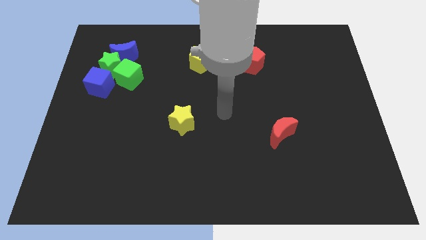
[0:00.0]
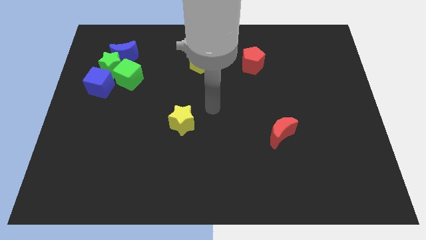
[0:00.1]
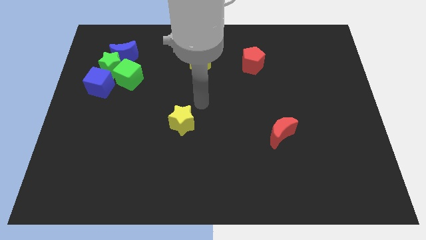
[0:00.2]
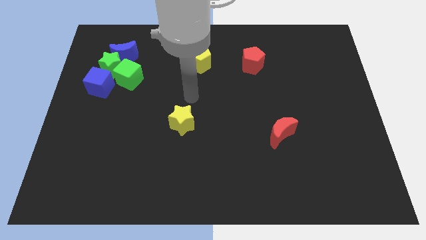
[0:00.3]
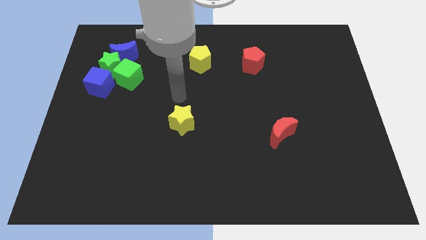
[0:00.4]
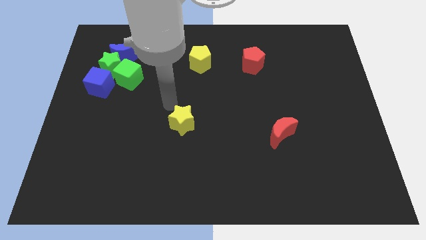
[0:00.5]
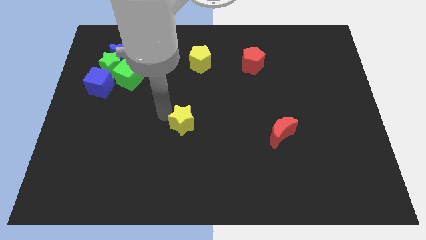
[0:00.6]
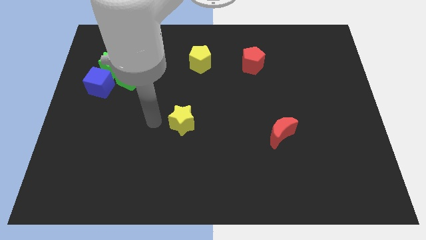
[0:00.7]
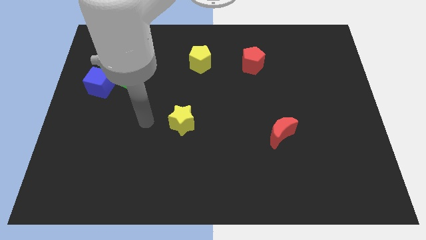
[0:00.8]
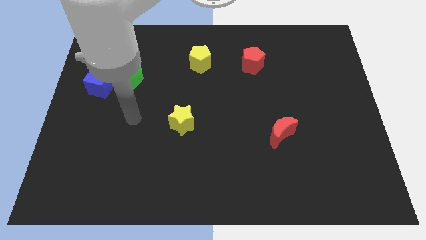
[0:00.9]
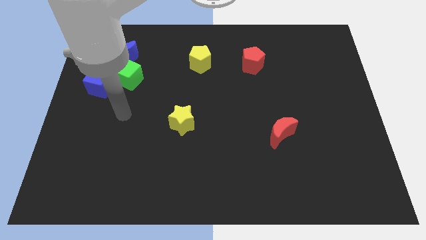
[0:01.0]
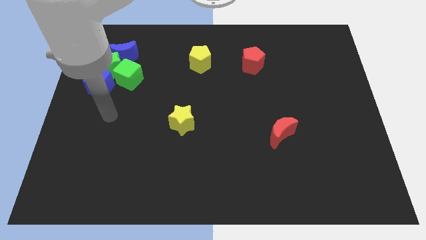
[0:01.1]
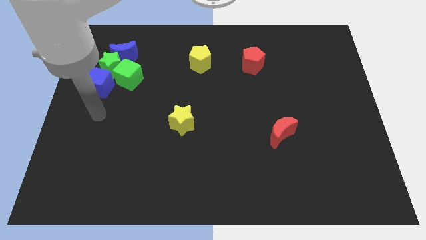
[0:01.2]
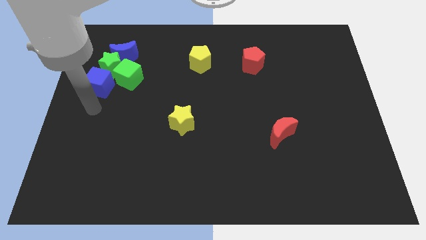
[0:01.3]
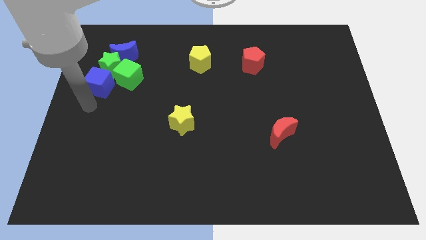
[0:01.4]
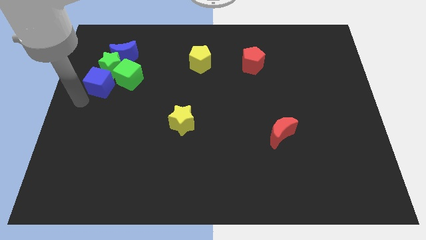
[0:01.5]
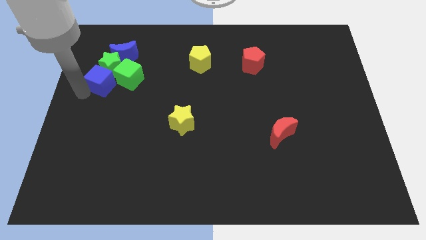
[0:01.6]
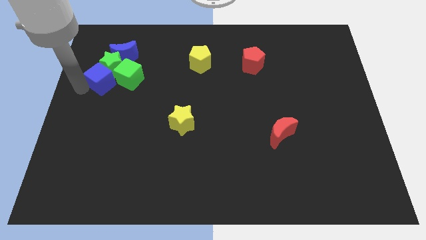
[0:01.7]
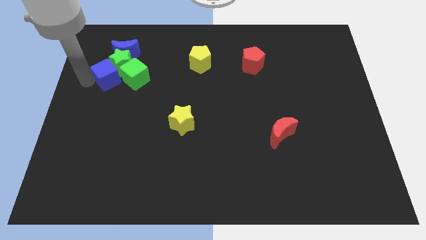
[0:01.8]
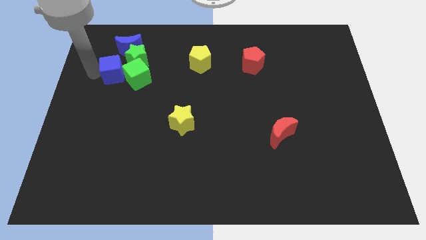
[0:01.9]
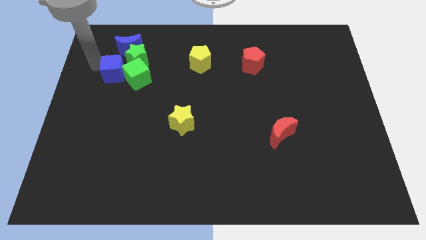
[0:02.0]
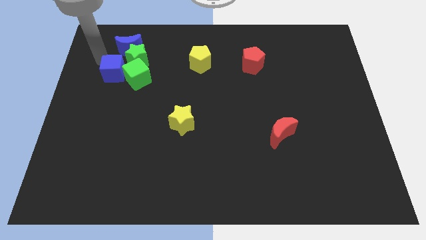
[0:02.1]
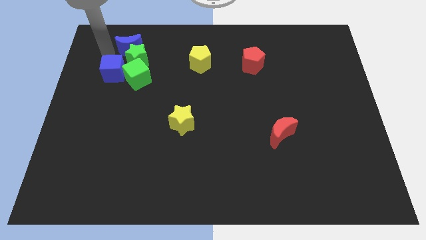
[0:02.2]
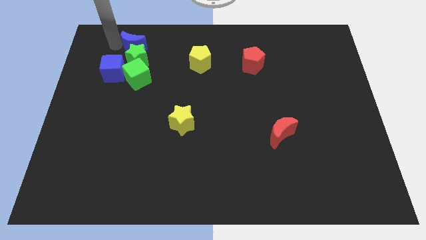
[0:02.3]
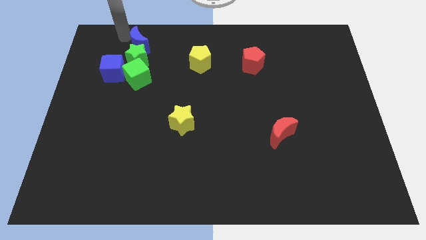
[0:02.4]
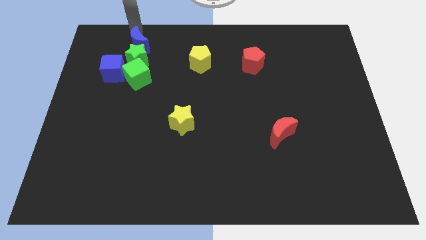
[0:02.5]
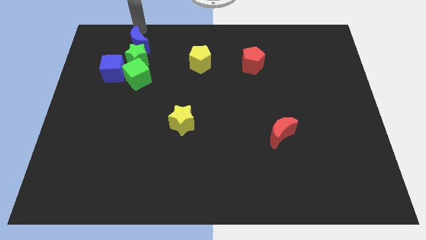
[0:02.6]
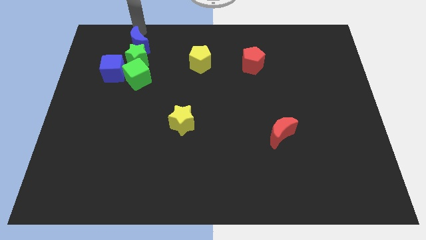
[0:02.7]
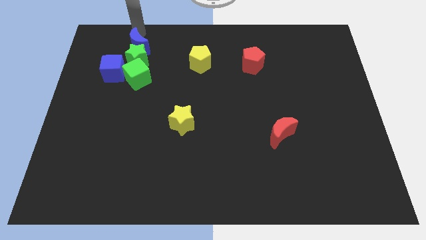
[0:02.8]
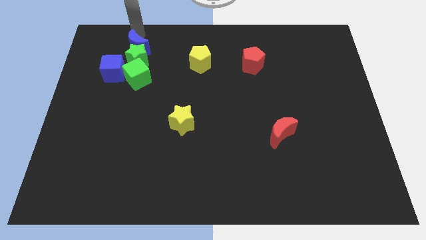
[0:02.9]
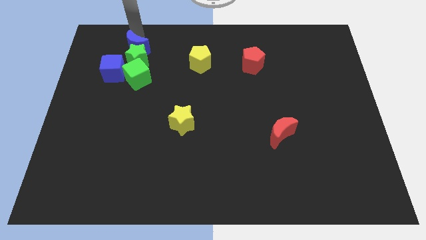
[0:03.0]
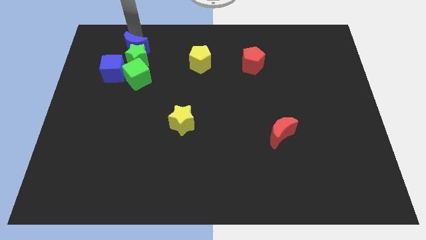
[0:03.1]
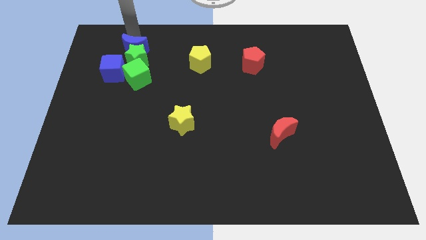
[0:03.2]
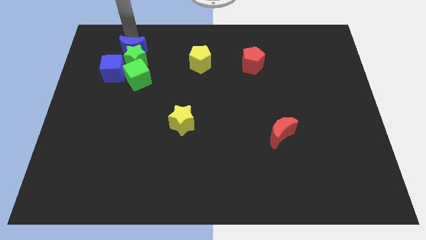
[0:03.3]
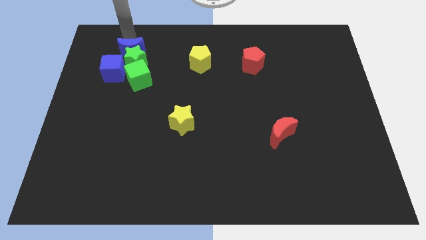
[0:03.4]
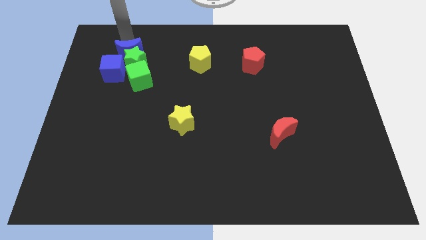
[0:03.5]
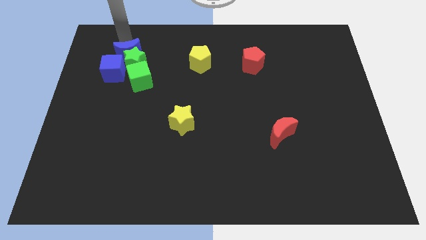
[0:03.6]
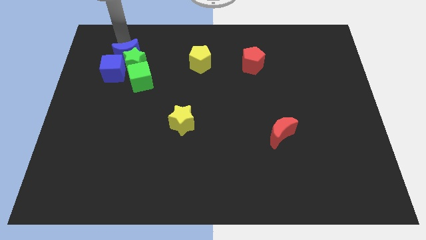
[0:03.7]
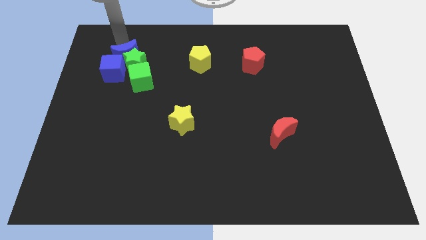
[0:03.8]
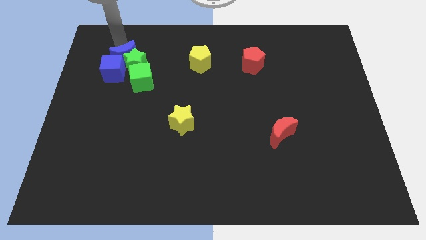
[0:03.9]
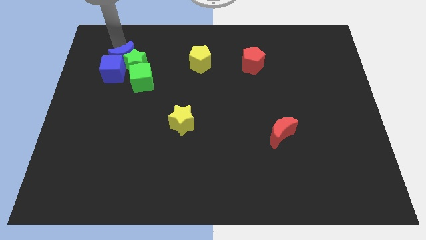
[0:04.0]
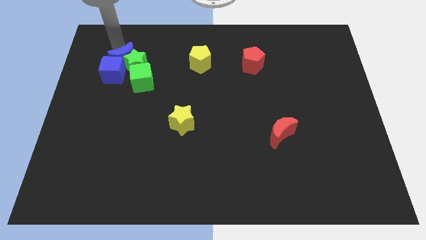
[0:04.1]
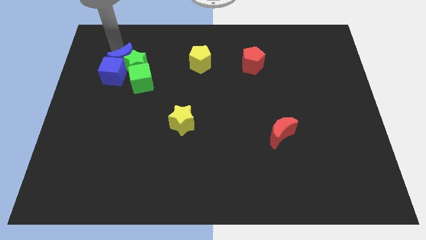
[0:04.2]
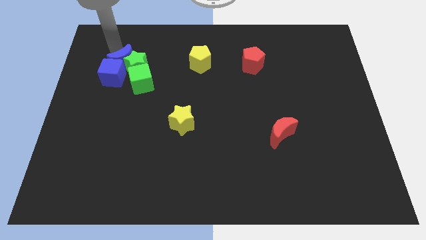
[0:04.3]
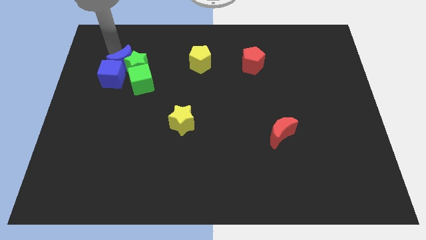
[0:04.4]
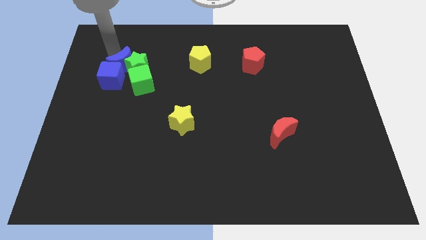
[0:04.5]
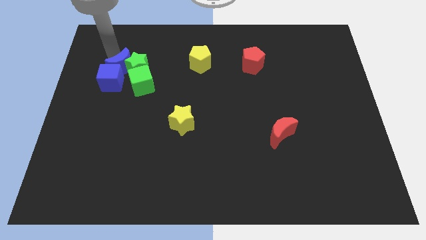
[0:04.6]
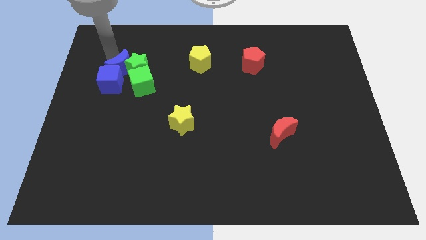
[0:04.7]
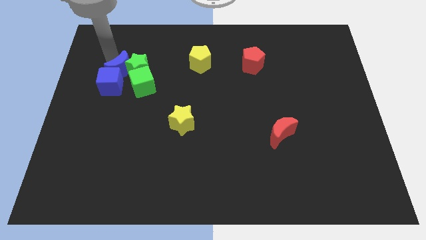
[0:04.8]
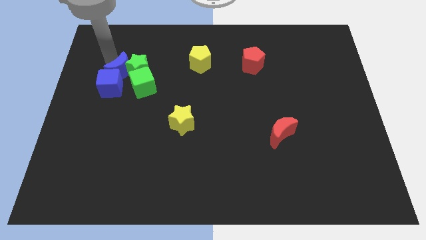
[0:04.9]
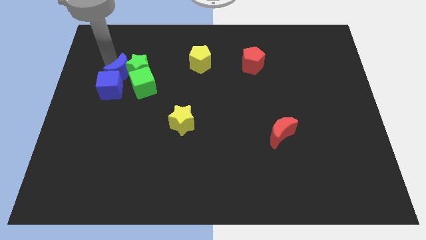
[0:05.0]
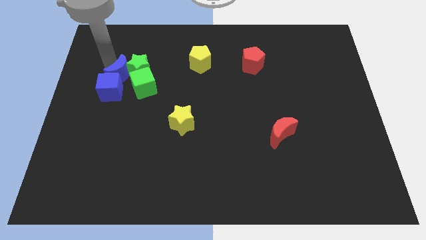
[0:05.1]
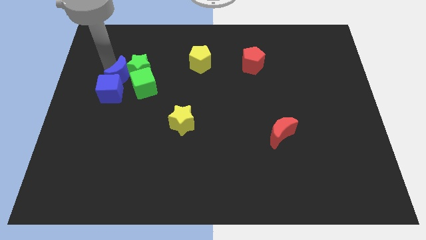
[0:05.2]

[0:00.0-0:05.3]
move the blue moon down a little

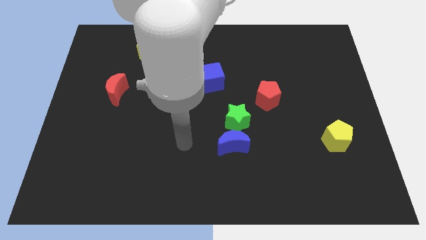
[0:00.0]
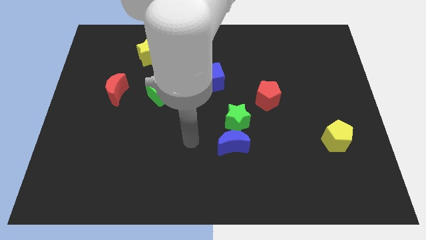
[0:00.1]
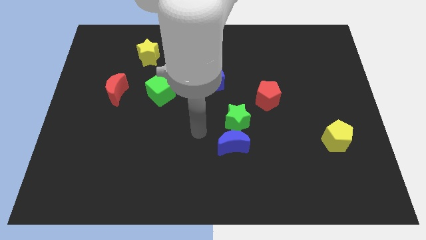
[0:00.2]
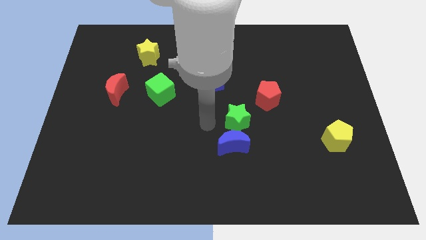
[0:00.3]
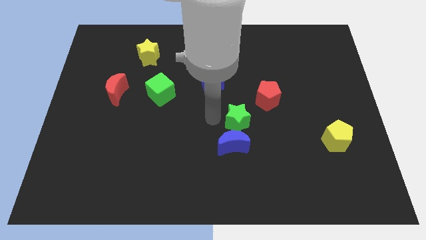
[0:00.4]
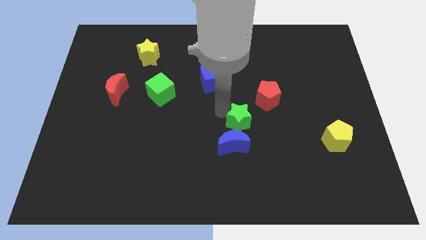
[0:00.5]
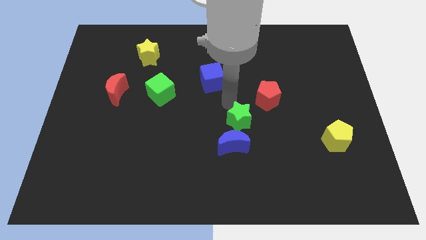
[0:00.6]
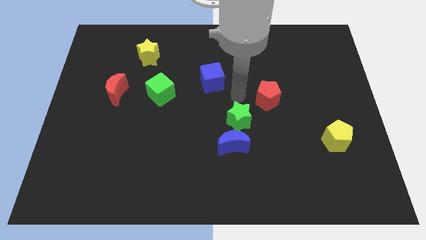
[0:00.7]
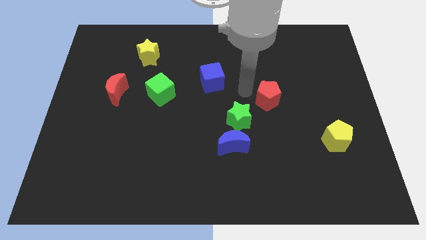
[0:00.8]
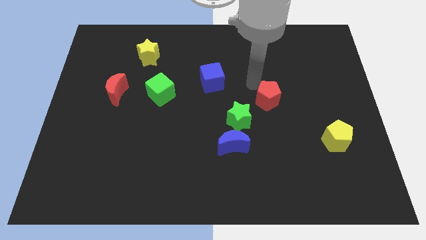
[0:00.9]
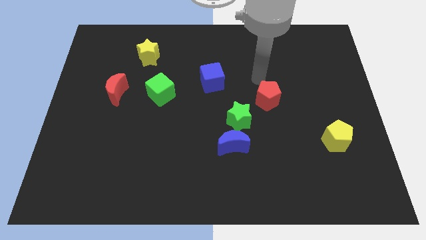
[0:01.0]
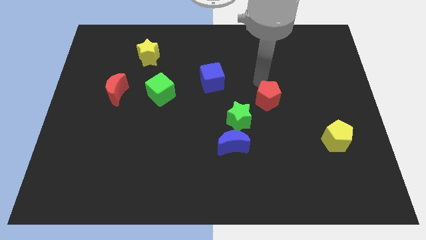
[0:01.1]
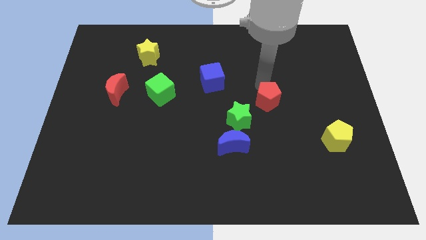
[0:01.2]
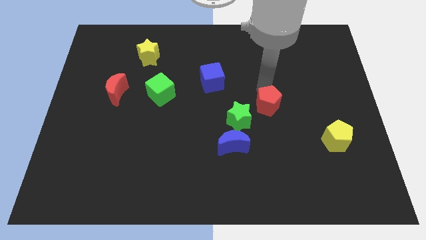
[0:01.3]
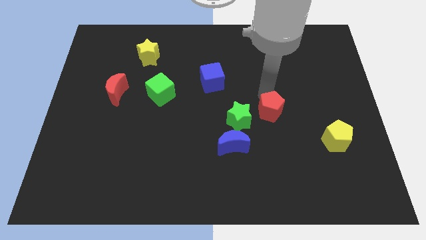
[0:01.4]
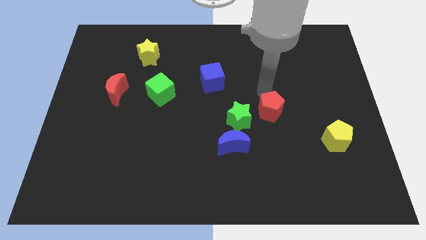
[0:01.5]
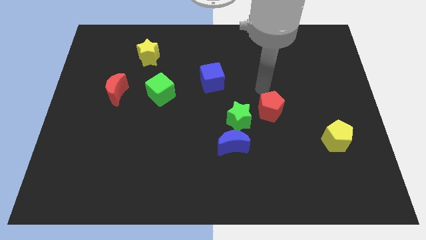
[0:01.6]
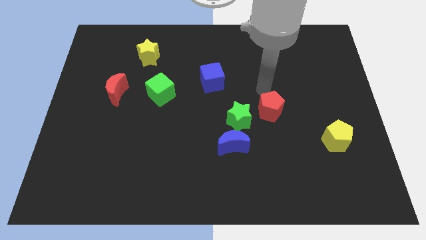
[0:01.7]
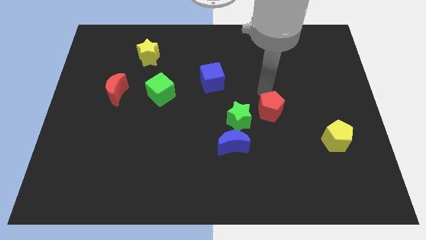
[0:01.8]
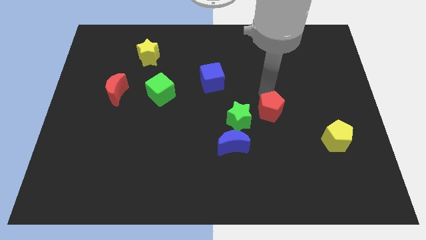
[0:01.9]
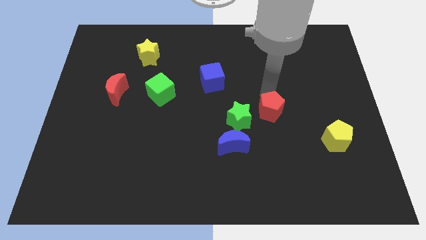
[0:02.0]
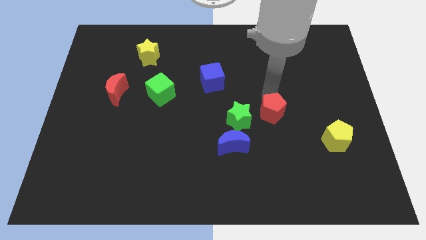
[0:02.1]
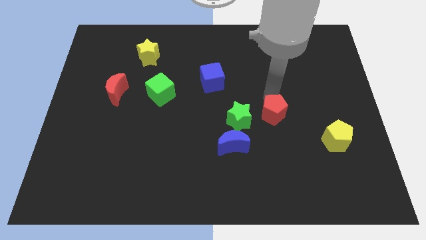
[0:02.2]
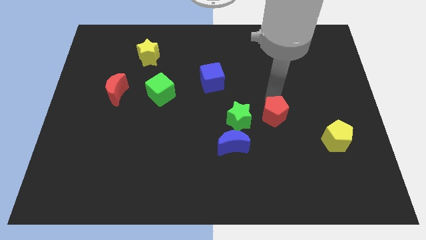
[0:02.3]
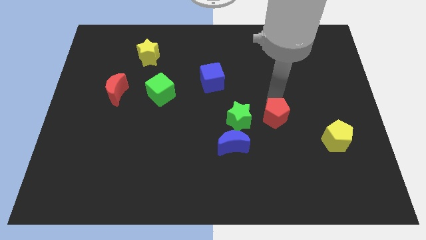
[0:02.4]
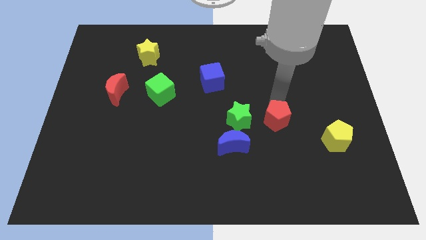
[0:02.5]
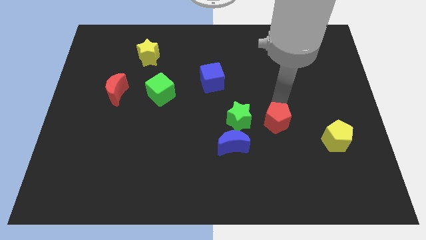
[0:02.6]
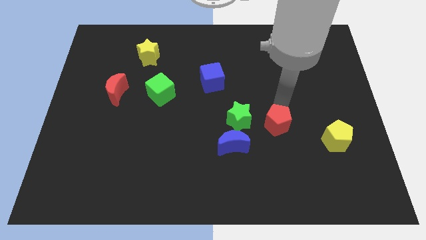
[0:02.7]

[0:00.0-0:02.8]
slightly move the red pentagon down
